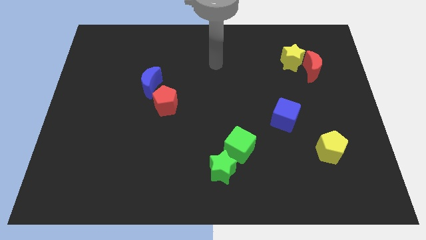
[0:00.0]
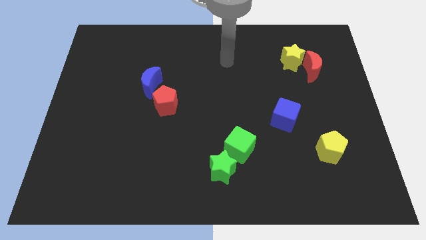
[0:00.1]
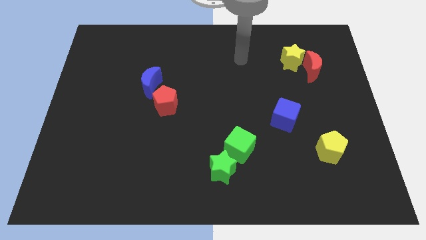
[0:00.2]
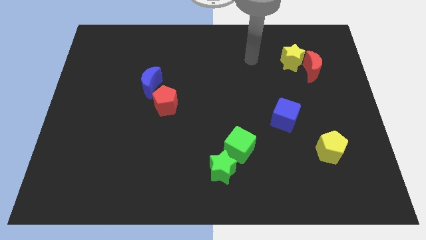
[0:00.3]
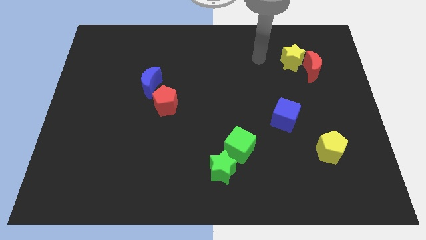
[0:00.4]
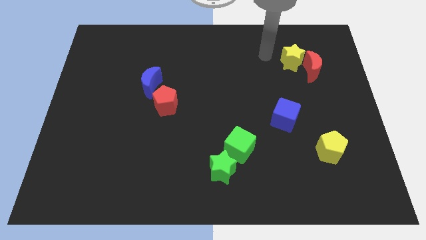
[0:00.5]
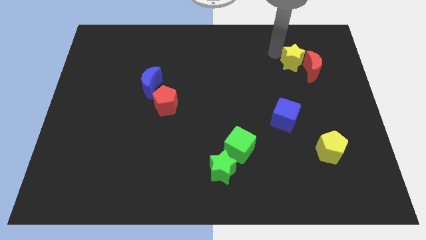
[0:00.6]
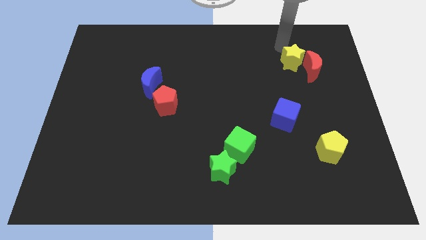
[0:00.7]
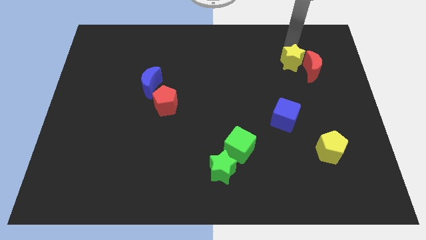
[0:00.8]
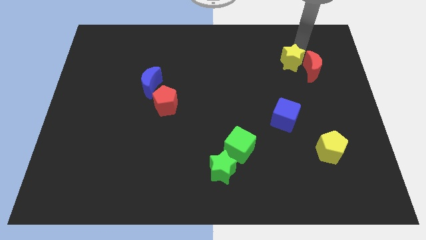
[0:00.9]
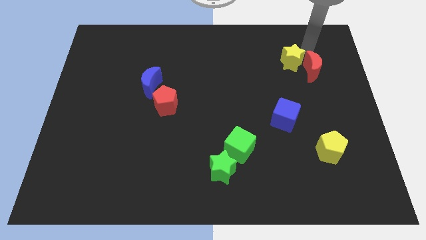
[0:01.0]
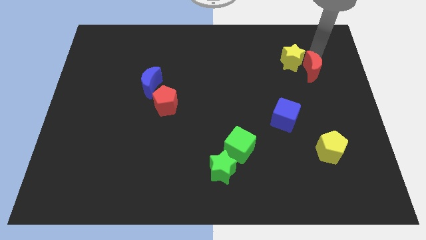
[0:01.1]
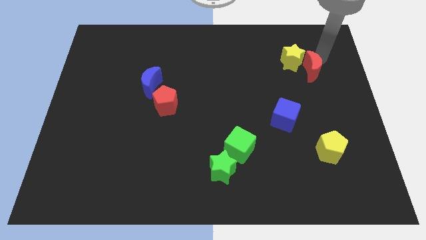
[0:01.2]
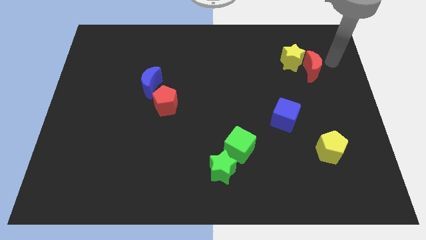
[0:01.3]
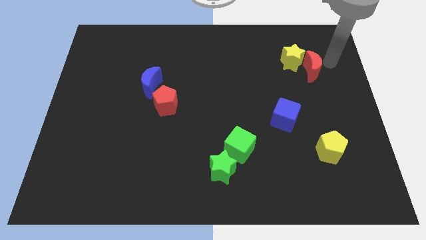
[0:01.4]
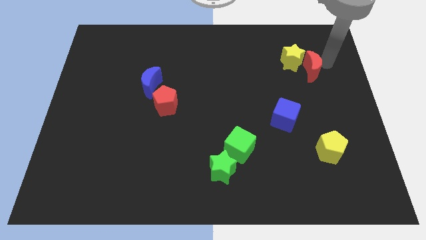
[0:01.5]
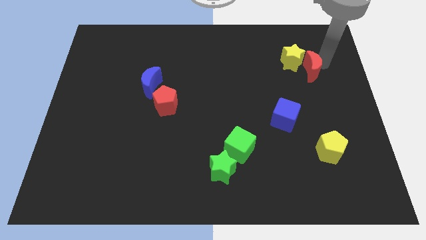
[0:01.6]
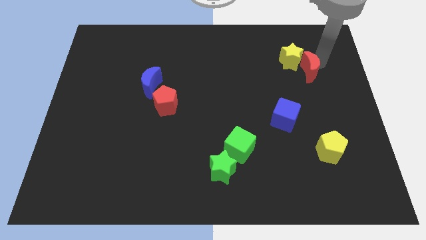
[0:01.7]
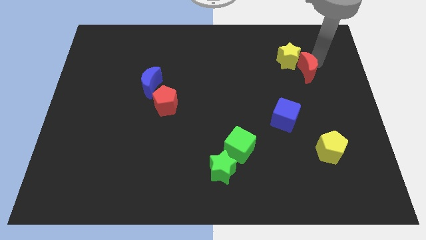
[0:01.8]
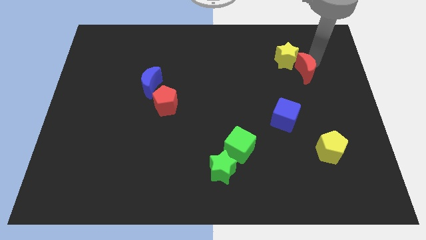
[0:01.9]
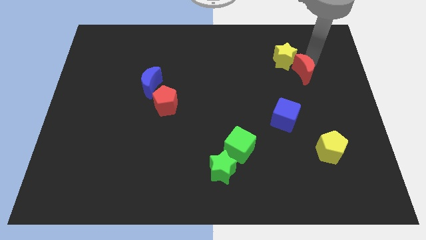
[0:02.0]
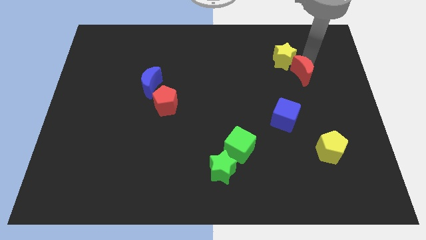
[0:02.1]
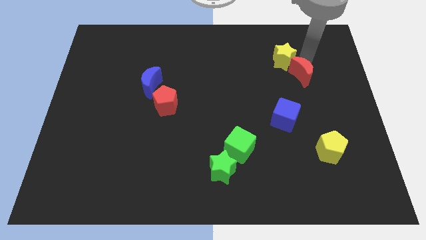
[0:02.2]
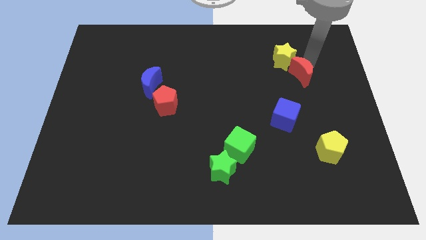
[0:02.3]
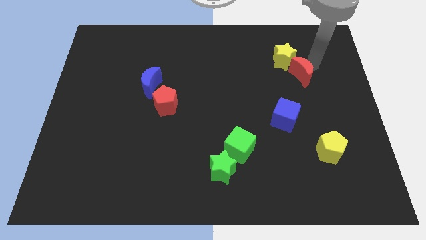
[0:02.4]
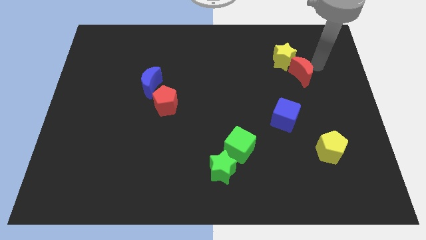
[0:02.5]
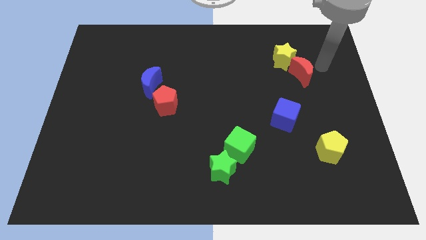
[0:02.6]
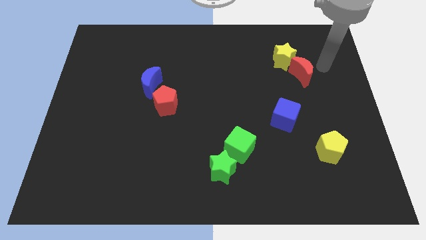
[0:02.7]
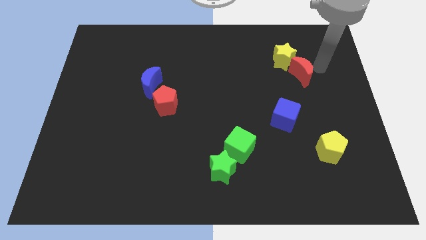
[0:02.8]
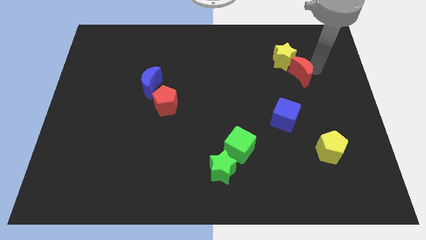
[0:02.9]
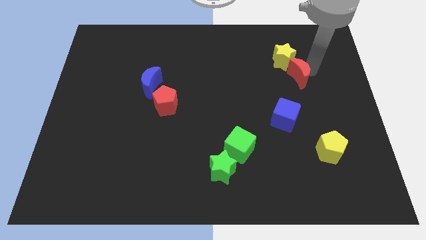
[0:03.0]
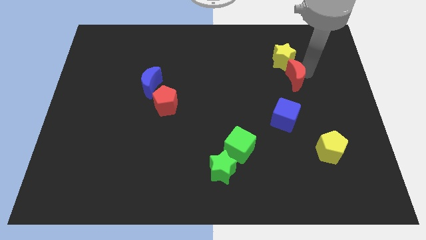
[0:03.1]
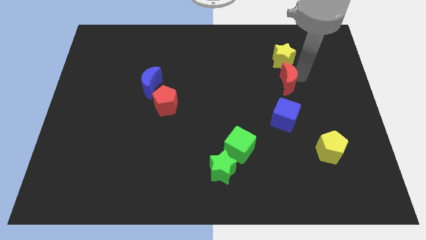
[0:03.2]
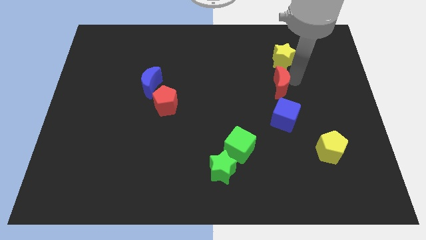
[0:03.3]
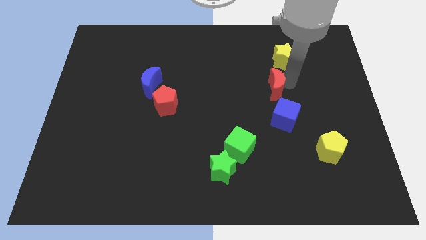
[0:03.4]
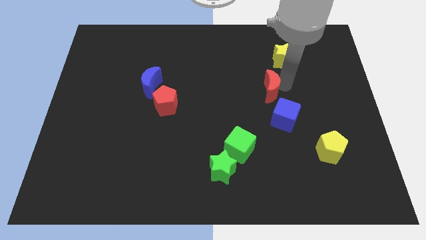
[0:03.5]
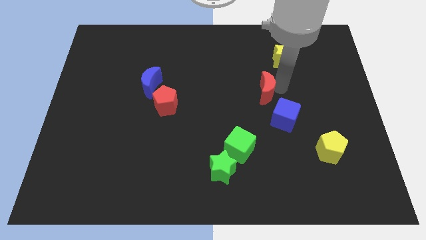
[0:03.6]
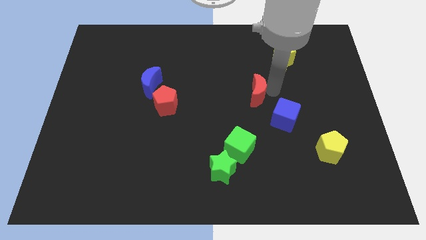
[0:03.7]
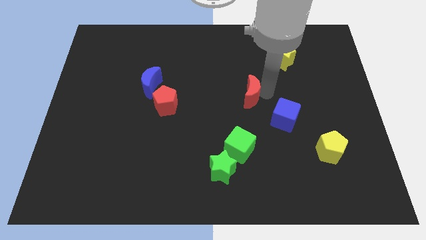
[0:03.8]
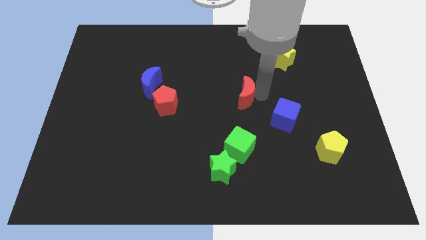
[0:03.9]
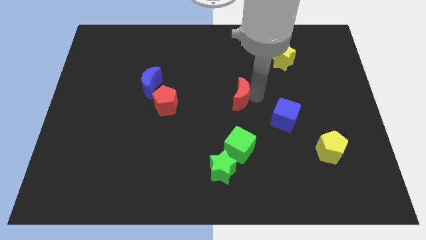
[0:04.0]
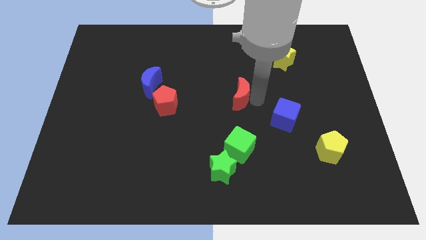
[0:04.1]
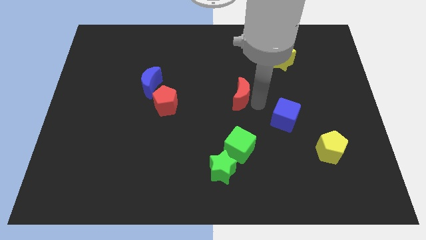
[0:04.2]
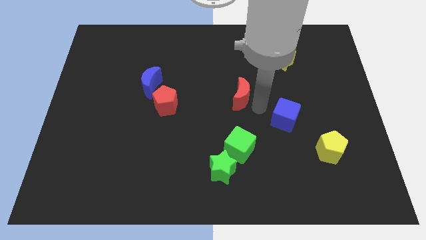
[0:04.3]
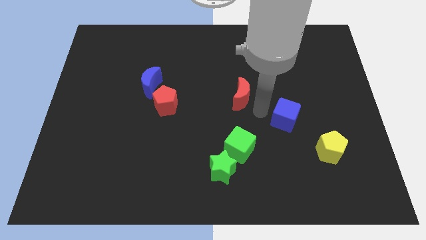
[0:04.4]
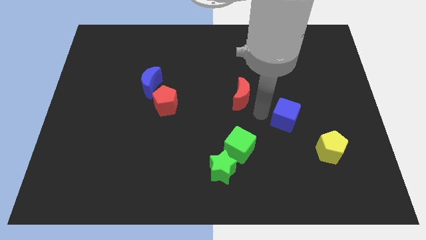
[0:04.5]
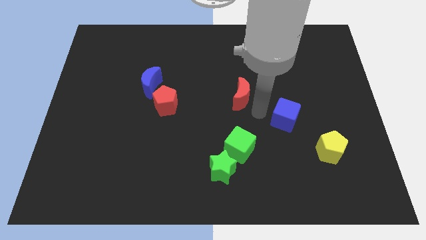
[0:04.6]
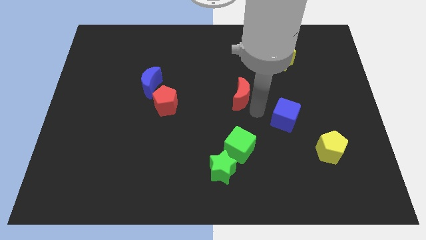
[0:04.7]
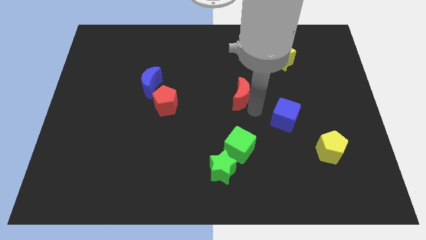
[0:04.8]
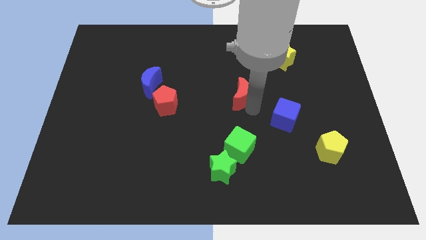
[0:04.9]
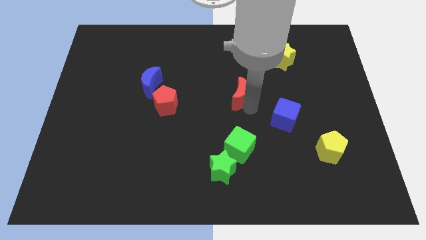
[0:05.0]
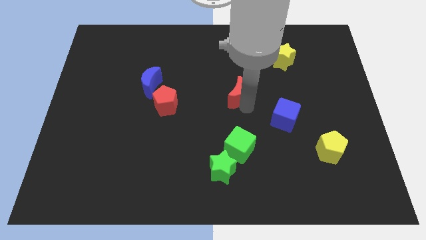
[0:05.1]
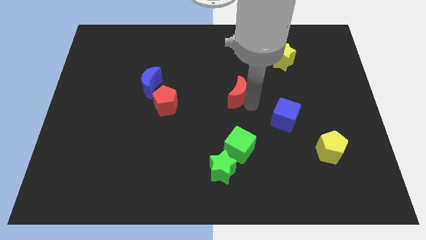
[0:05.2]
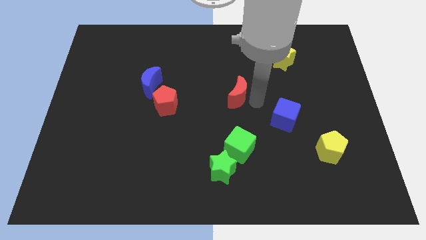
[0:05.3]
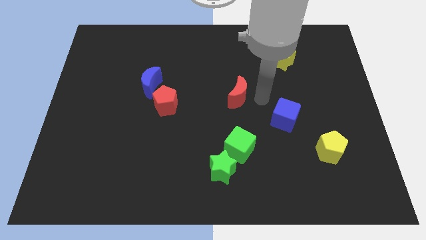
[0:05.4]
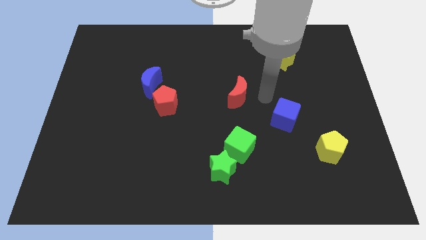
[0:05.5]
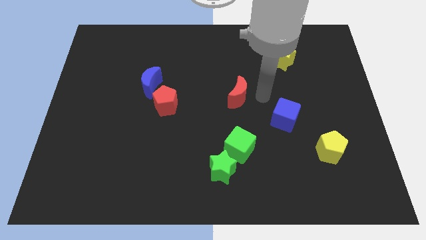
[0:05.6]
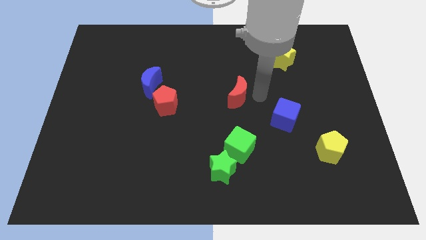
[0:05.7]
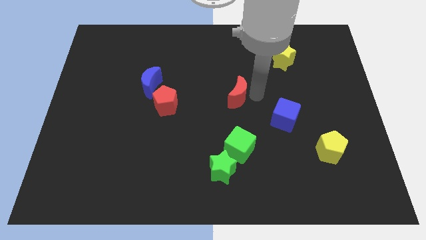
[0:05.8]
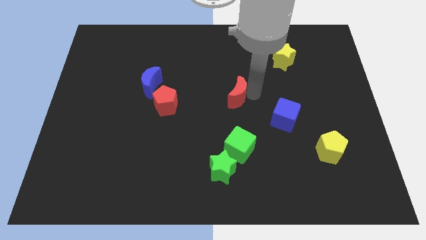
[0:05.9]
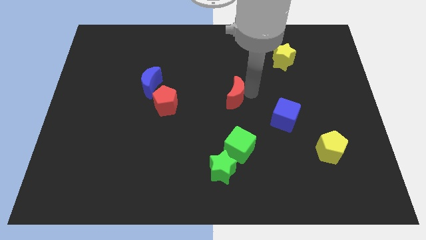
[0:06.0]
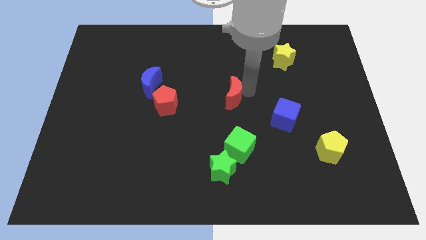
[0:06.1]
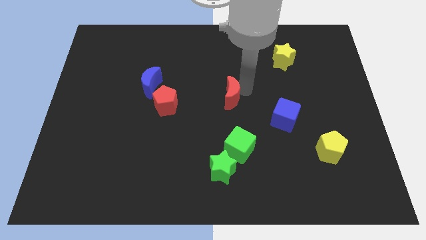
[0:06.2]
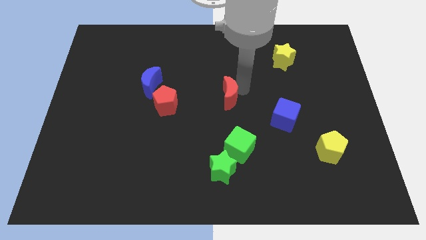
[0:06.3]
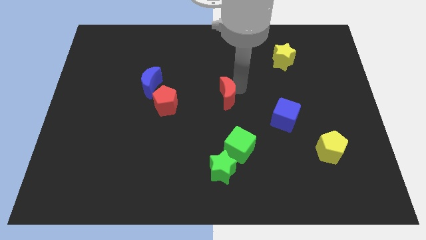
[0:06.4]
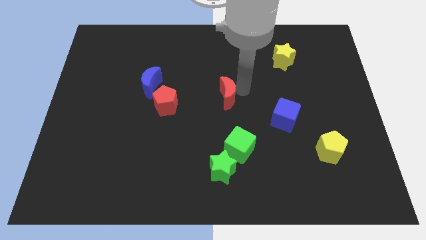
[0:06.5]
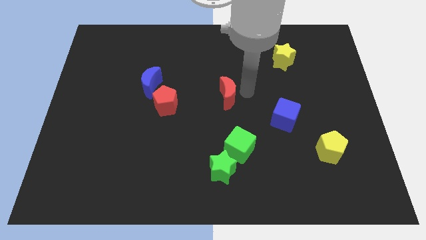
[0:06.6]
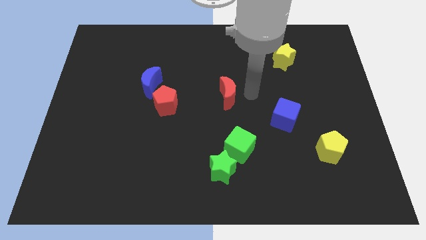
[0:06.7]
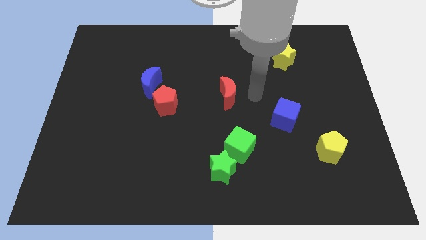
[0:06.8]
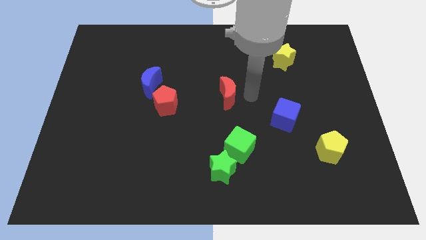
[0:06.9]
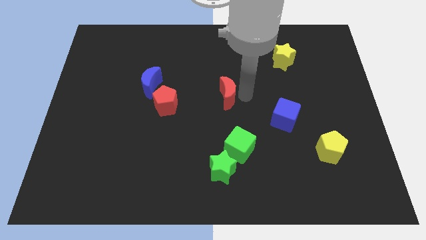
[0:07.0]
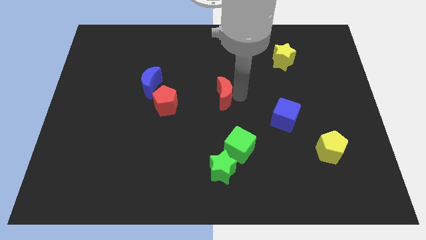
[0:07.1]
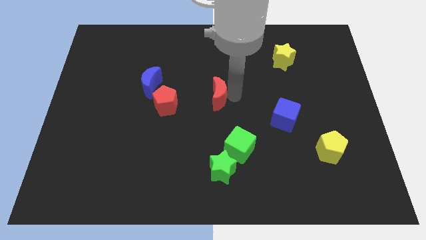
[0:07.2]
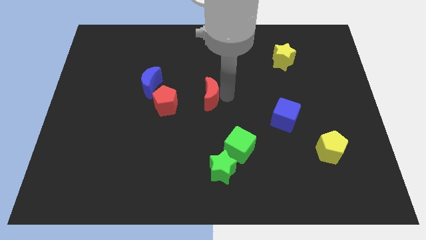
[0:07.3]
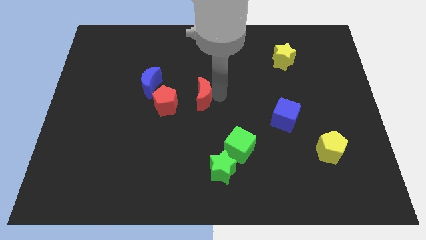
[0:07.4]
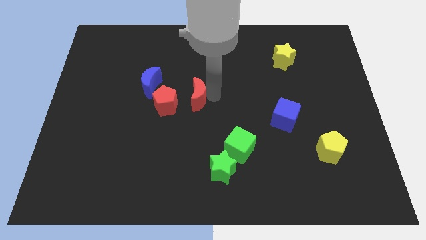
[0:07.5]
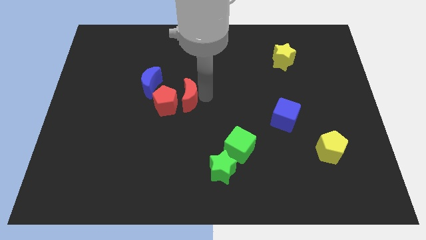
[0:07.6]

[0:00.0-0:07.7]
put the red moon towards the red pentagon
